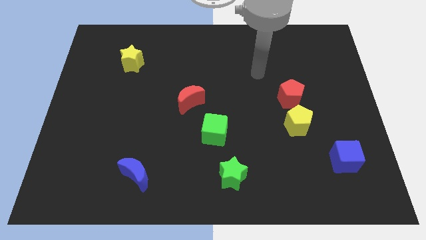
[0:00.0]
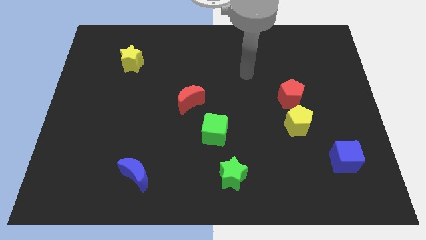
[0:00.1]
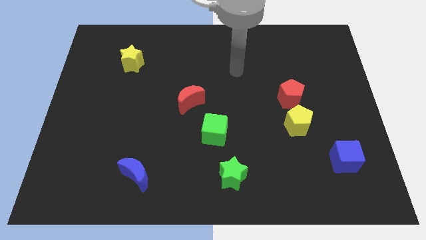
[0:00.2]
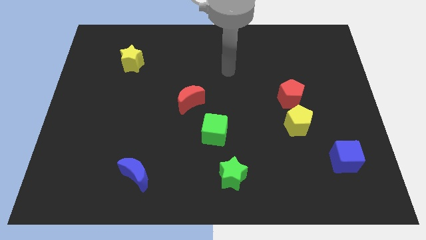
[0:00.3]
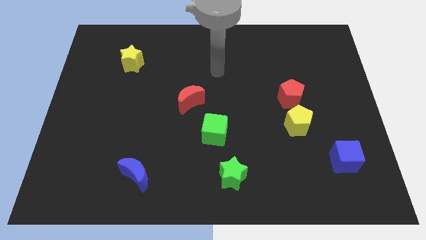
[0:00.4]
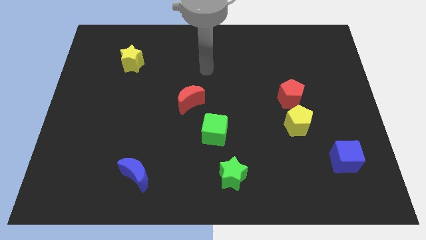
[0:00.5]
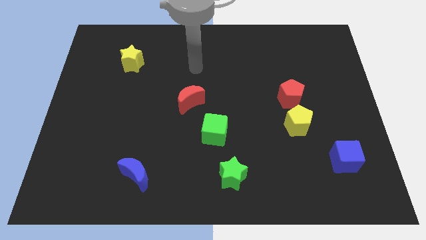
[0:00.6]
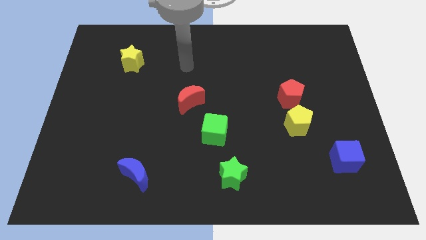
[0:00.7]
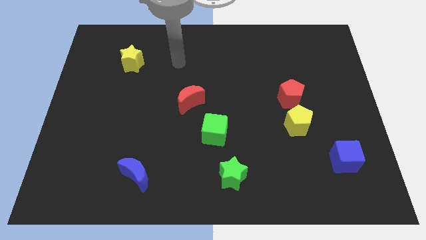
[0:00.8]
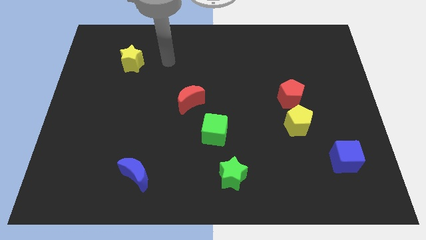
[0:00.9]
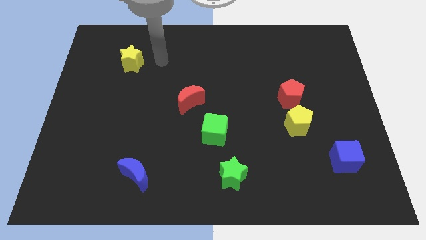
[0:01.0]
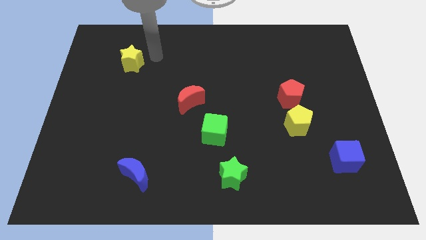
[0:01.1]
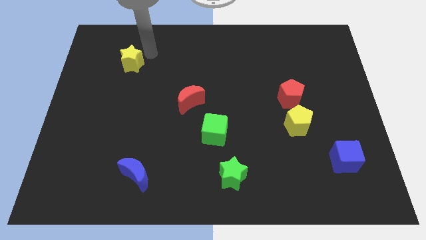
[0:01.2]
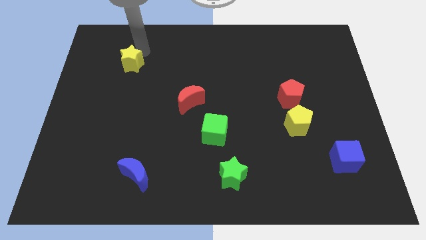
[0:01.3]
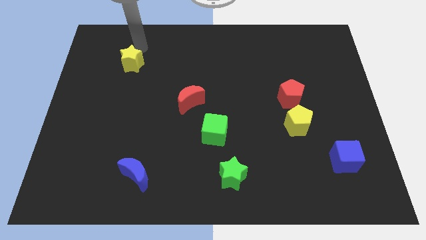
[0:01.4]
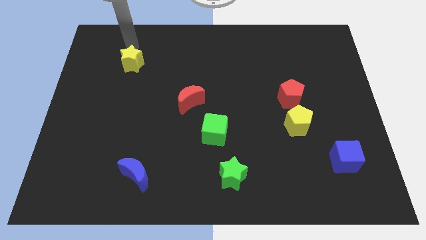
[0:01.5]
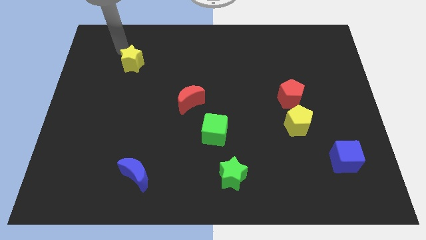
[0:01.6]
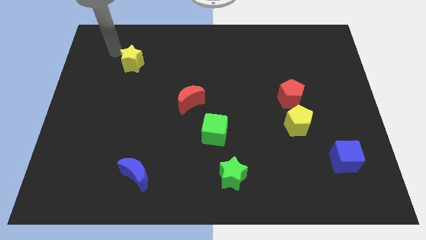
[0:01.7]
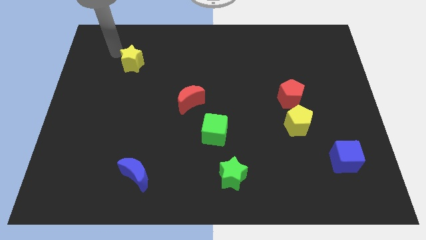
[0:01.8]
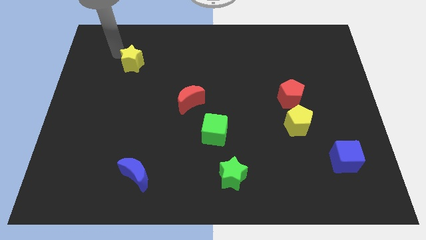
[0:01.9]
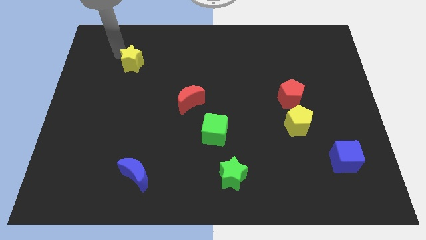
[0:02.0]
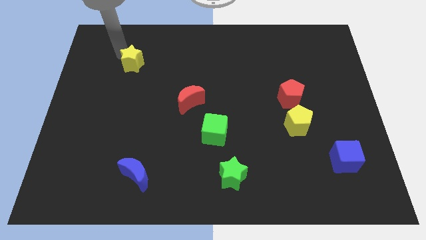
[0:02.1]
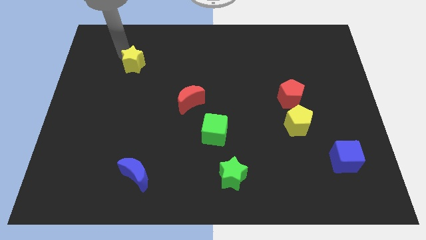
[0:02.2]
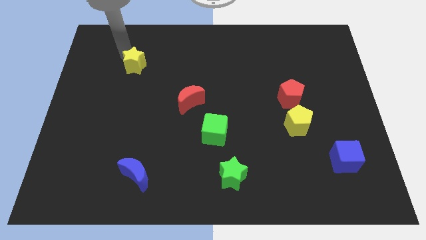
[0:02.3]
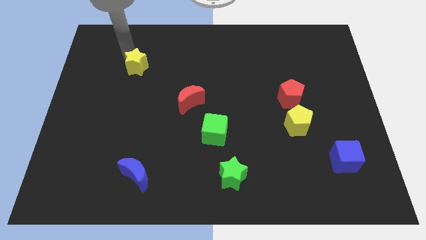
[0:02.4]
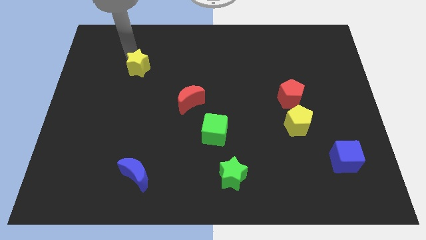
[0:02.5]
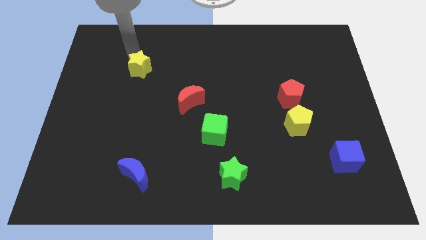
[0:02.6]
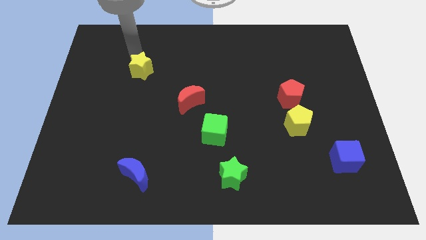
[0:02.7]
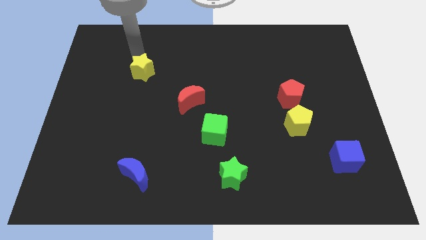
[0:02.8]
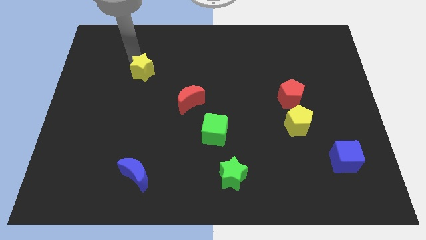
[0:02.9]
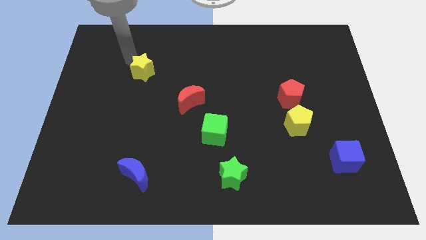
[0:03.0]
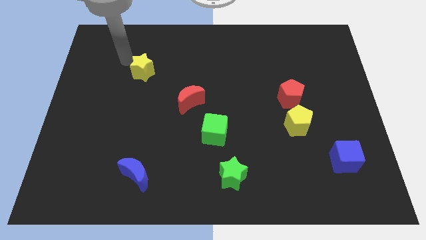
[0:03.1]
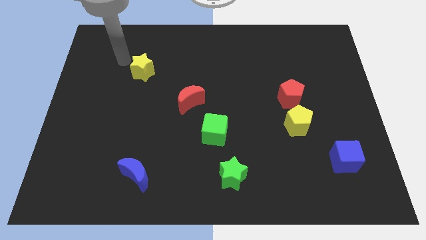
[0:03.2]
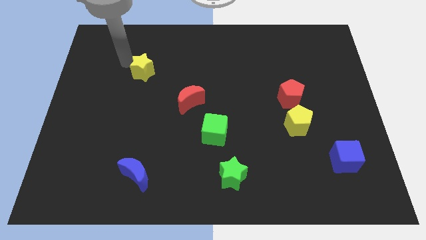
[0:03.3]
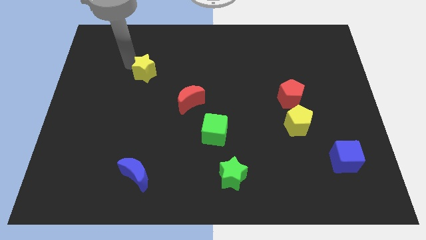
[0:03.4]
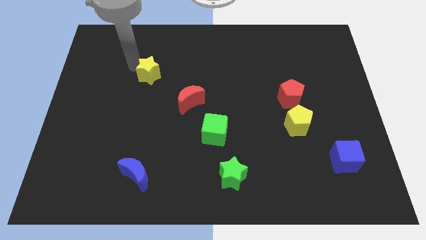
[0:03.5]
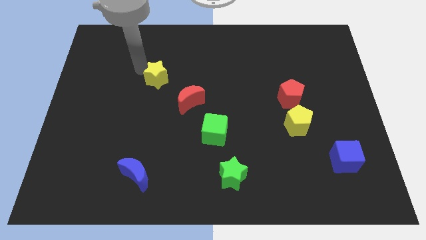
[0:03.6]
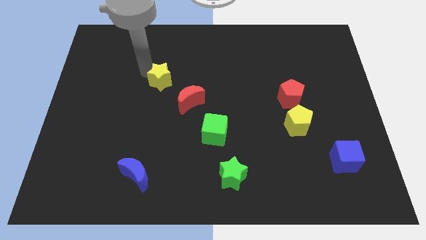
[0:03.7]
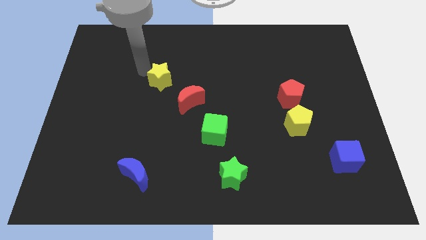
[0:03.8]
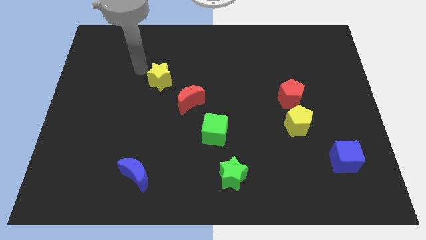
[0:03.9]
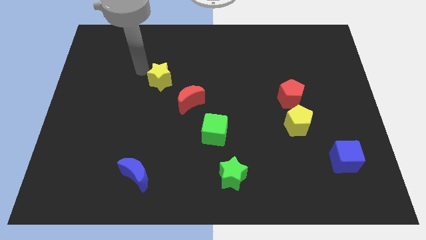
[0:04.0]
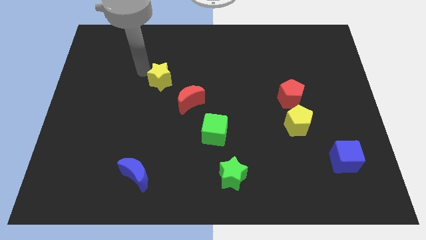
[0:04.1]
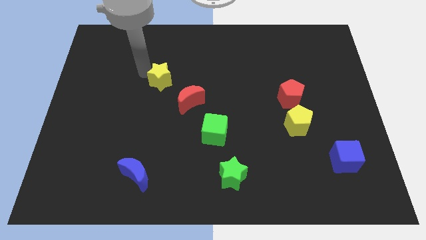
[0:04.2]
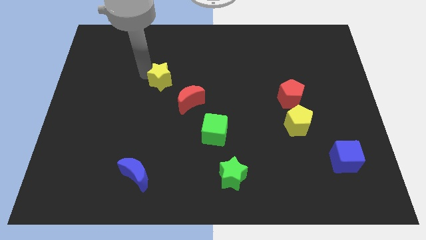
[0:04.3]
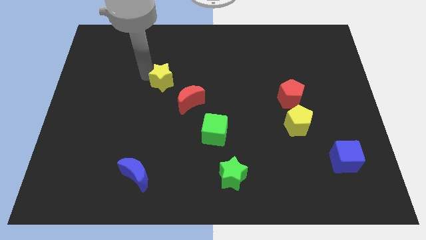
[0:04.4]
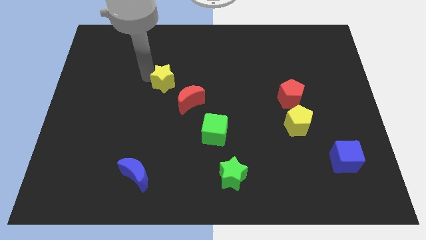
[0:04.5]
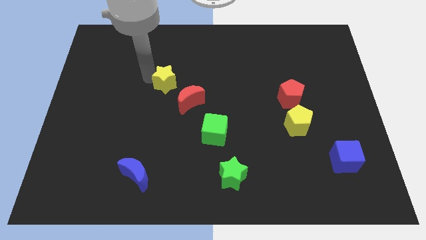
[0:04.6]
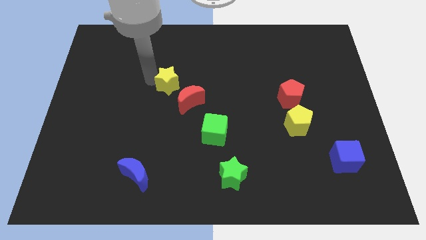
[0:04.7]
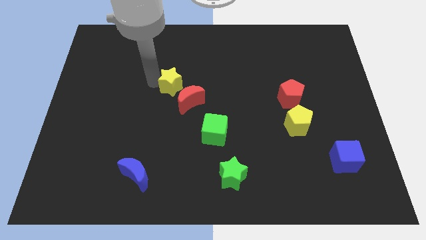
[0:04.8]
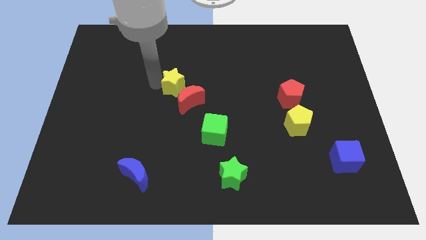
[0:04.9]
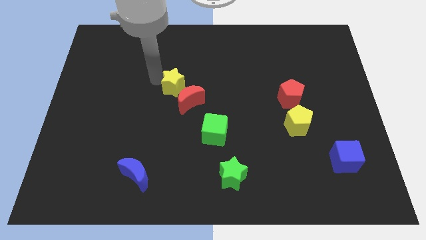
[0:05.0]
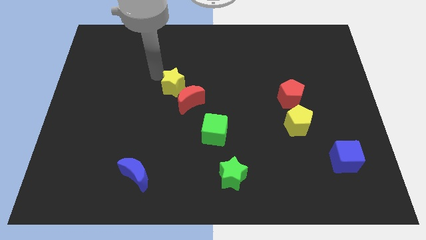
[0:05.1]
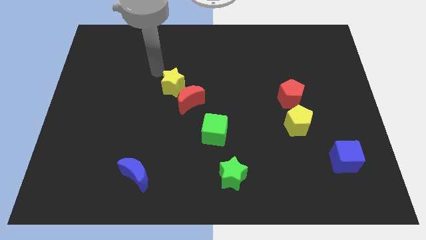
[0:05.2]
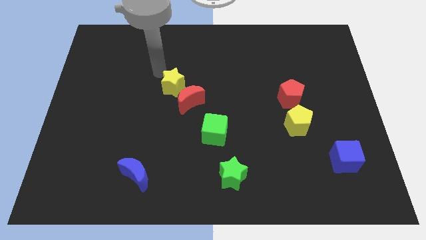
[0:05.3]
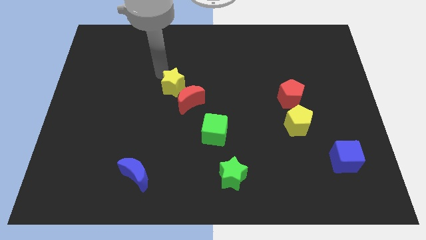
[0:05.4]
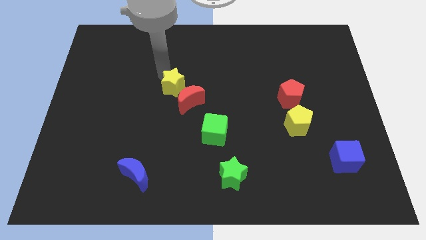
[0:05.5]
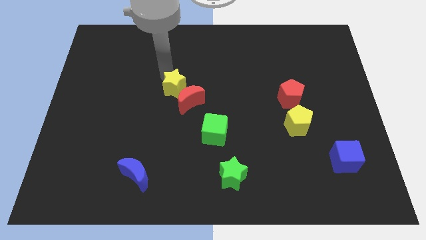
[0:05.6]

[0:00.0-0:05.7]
slide the yellow star towards the red moon

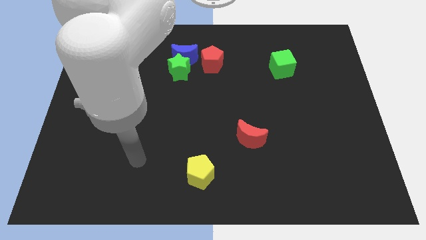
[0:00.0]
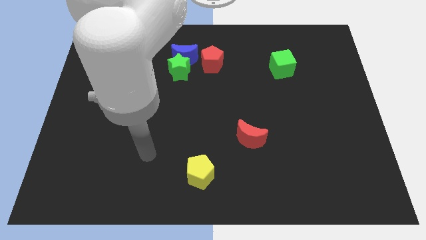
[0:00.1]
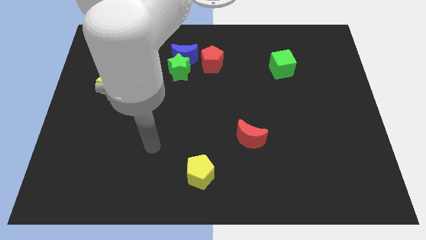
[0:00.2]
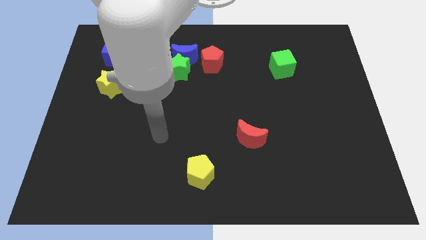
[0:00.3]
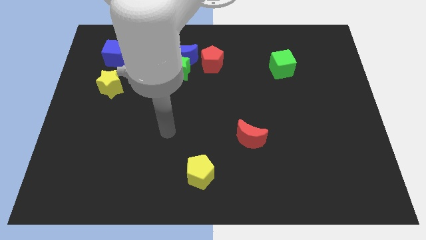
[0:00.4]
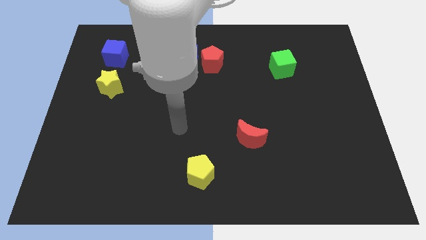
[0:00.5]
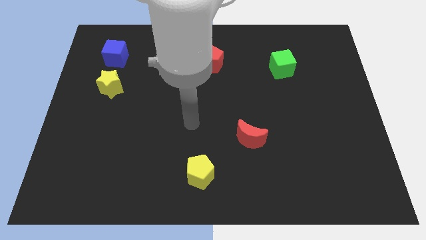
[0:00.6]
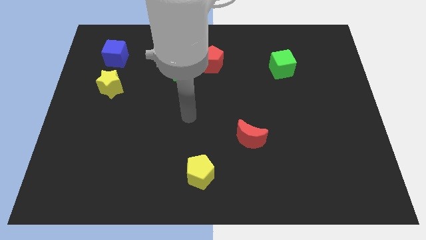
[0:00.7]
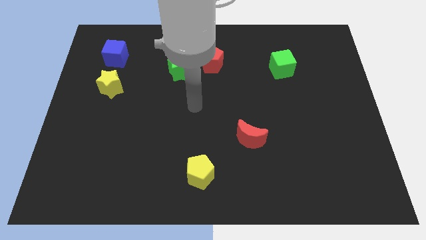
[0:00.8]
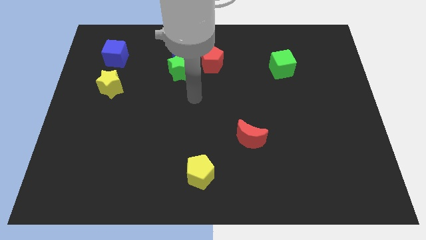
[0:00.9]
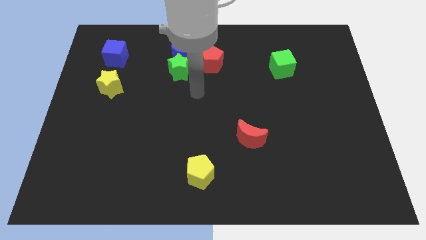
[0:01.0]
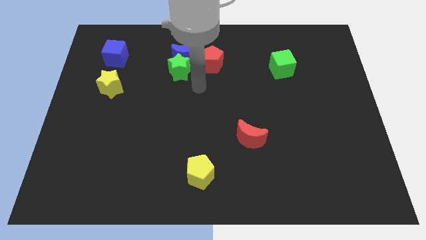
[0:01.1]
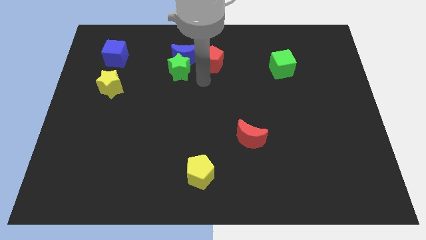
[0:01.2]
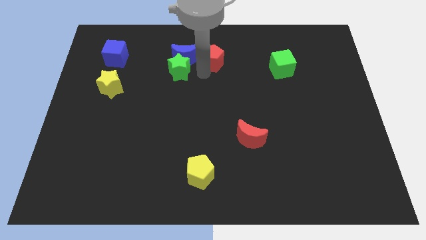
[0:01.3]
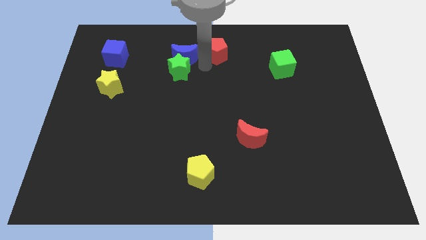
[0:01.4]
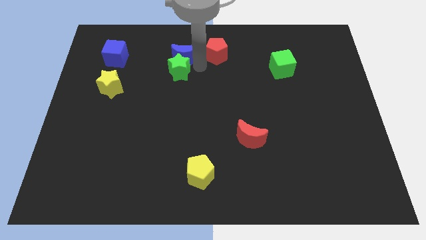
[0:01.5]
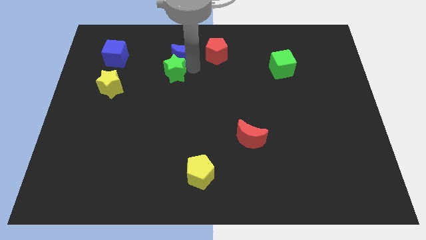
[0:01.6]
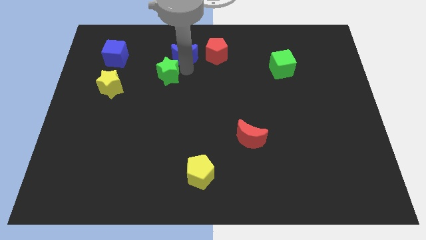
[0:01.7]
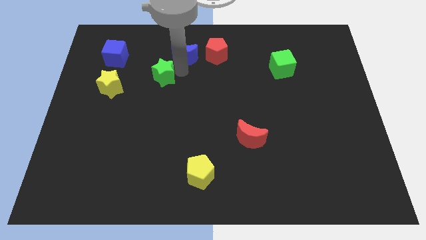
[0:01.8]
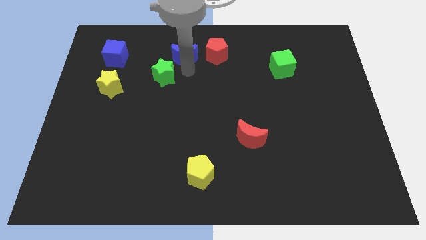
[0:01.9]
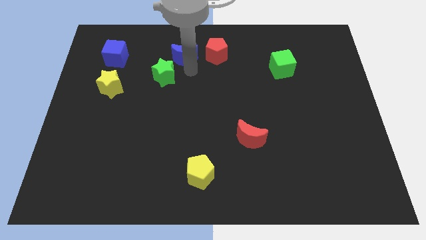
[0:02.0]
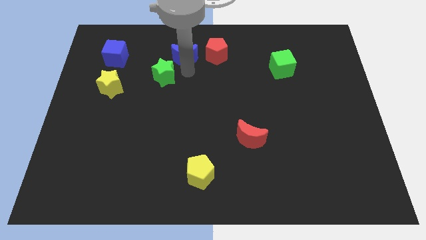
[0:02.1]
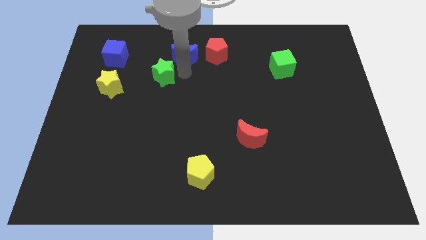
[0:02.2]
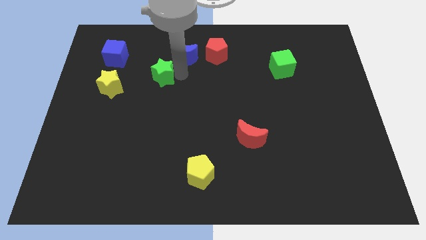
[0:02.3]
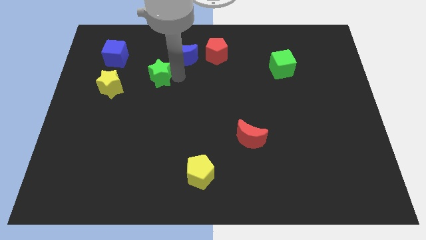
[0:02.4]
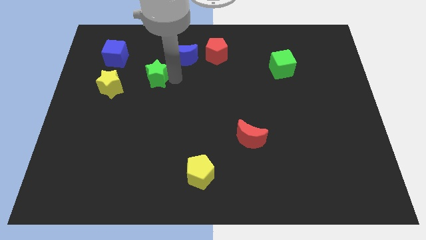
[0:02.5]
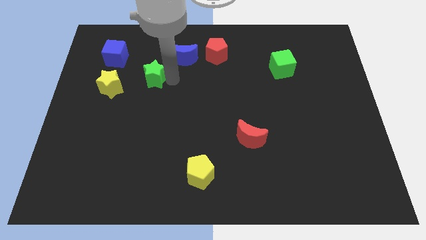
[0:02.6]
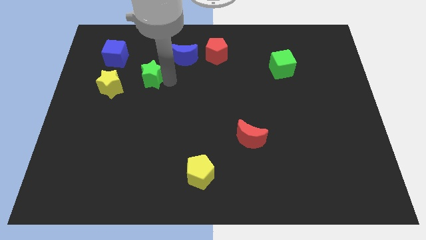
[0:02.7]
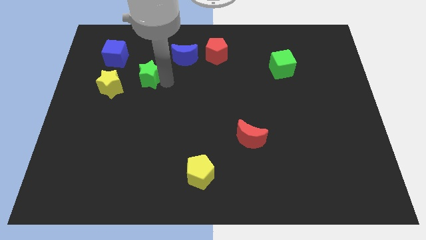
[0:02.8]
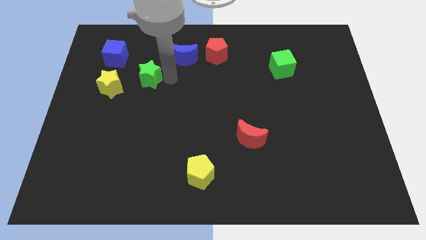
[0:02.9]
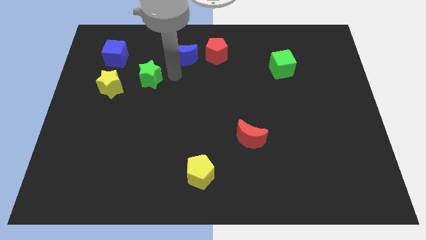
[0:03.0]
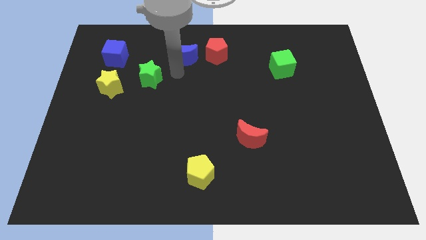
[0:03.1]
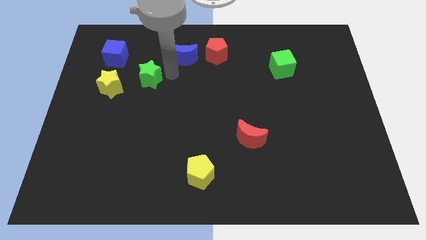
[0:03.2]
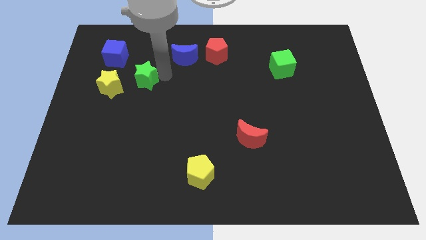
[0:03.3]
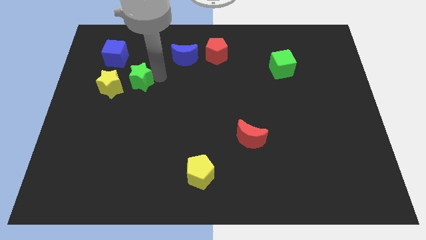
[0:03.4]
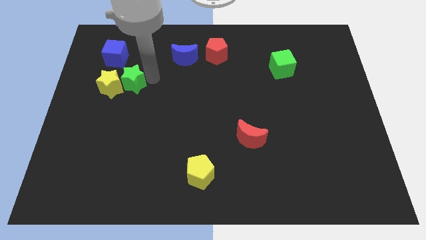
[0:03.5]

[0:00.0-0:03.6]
move the green star close to the yellow star
